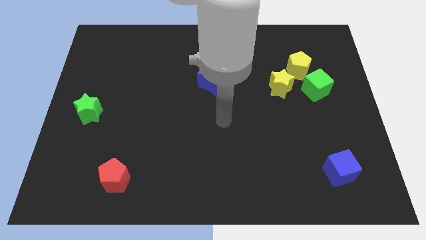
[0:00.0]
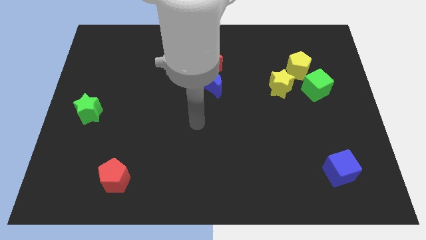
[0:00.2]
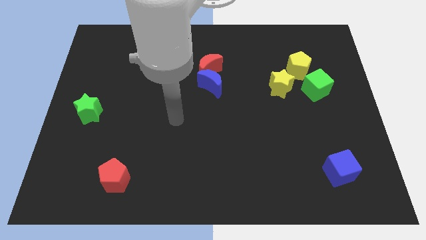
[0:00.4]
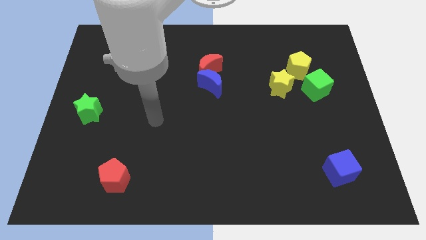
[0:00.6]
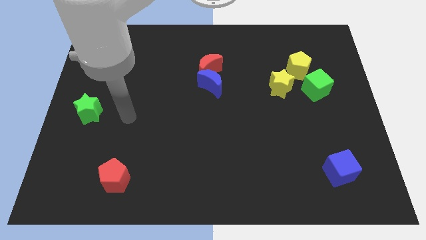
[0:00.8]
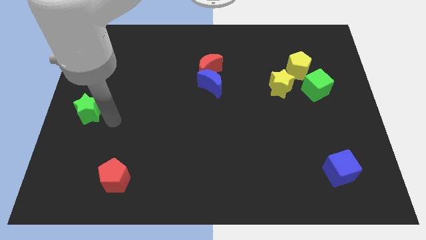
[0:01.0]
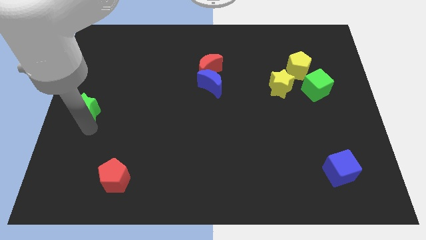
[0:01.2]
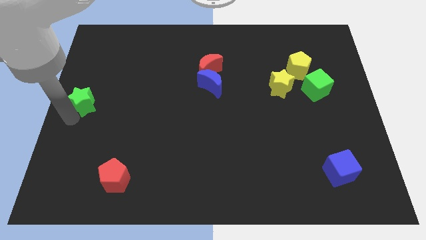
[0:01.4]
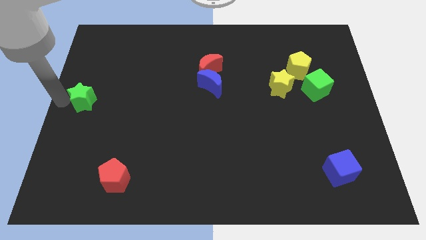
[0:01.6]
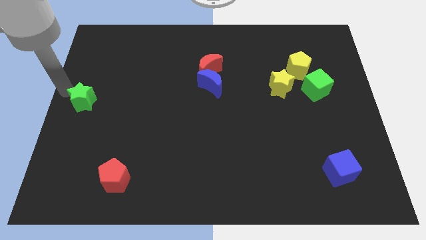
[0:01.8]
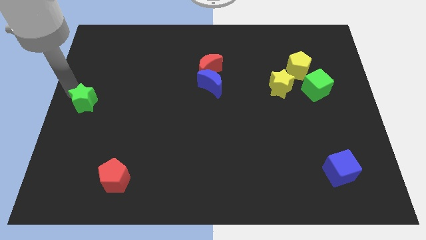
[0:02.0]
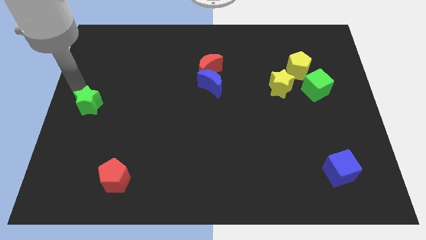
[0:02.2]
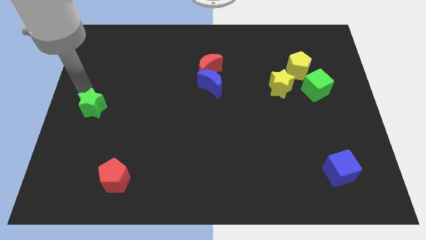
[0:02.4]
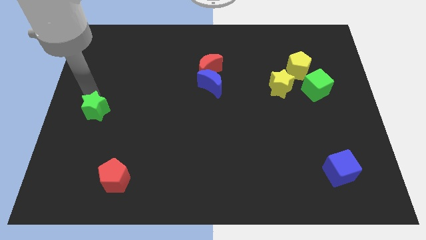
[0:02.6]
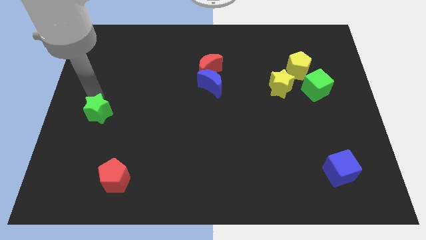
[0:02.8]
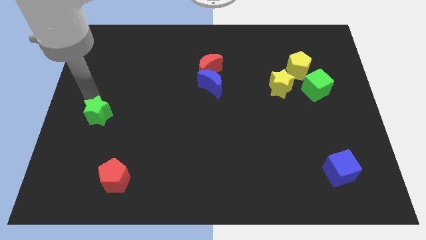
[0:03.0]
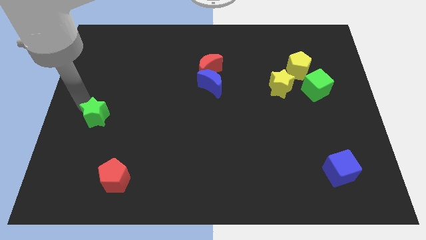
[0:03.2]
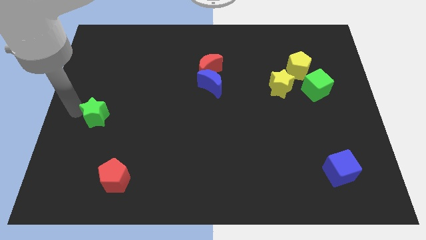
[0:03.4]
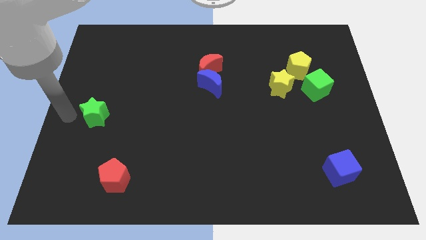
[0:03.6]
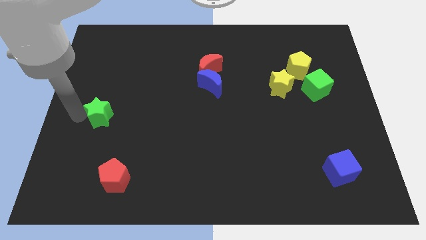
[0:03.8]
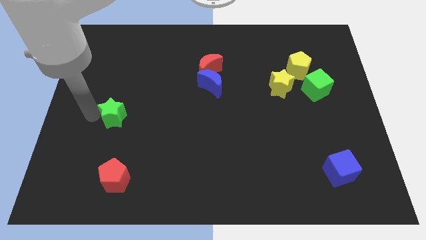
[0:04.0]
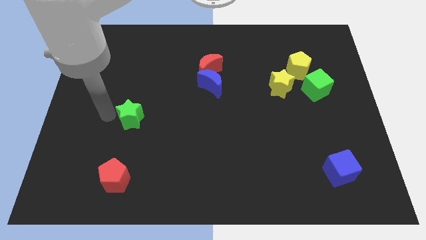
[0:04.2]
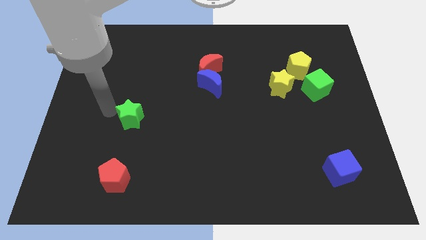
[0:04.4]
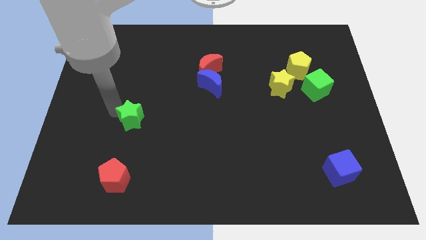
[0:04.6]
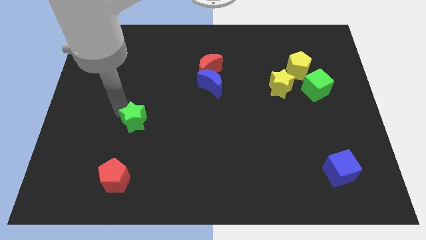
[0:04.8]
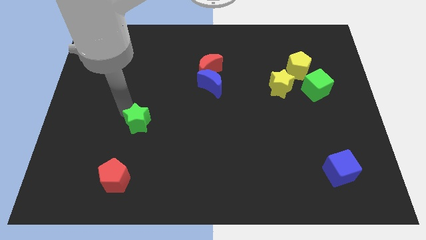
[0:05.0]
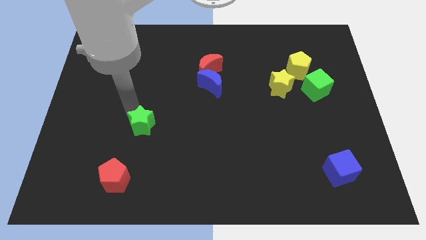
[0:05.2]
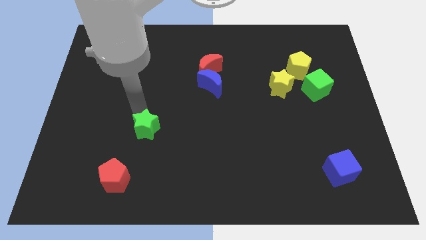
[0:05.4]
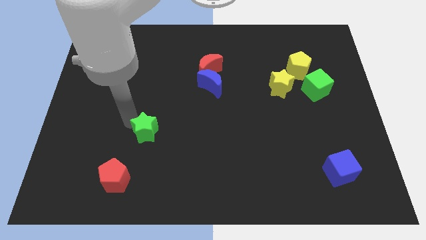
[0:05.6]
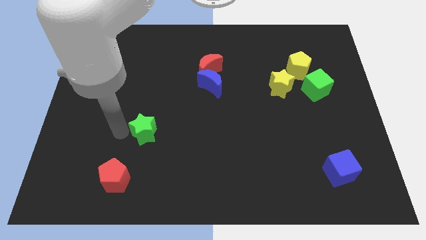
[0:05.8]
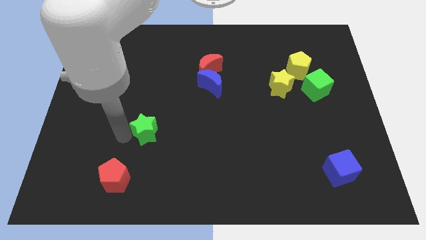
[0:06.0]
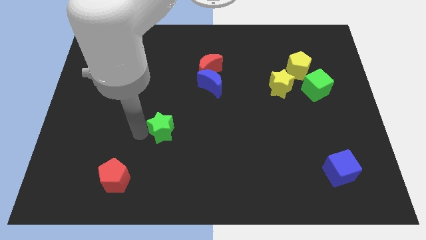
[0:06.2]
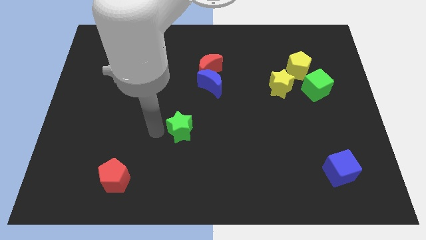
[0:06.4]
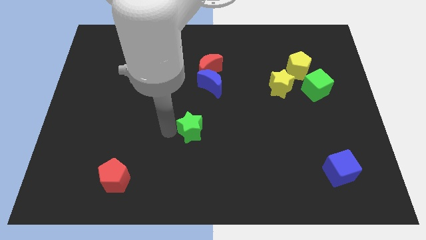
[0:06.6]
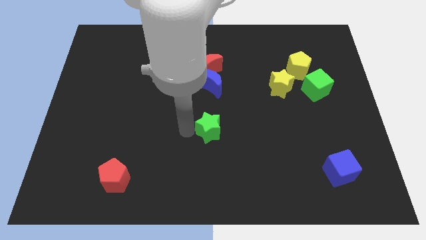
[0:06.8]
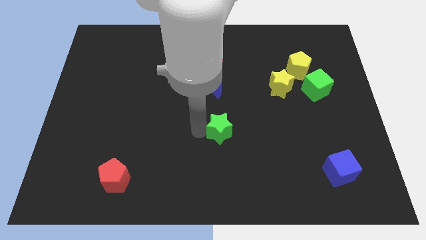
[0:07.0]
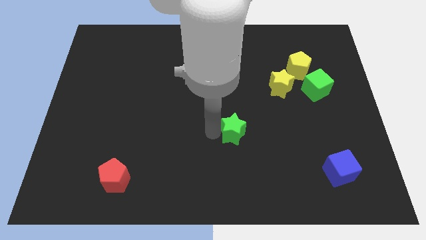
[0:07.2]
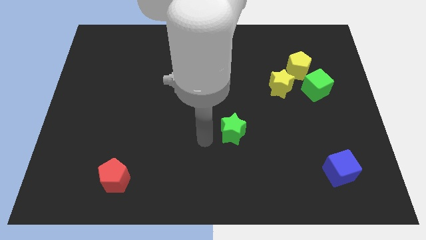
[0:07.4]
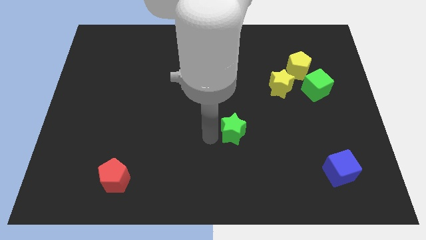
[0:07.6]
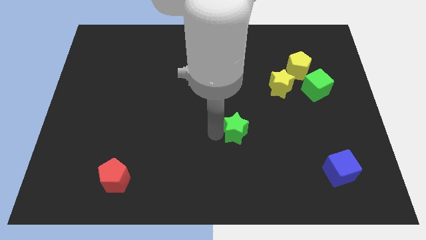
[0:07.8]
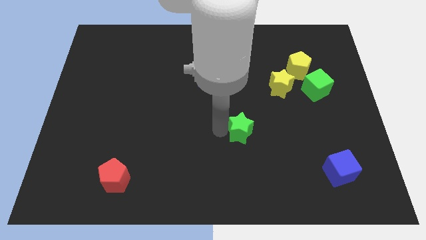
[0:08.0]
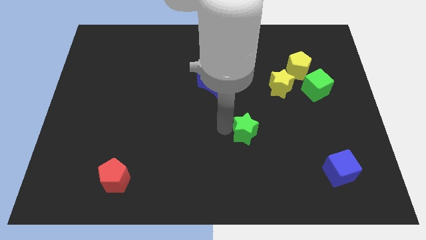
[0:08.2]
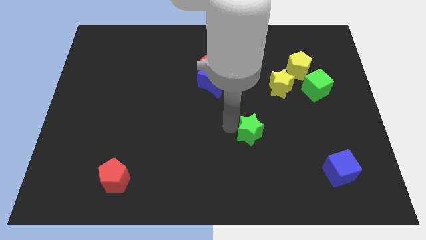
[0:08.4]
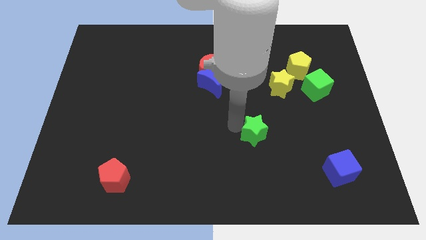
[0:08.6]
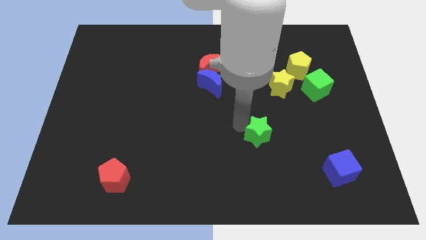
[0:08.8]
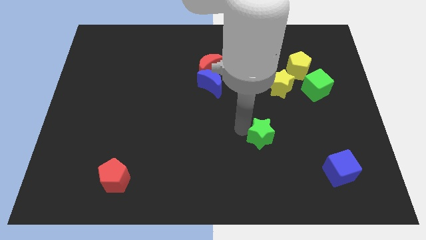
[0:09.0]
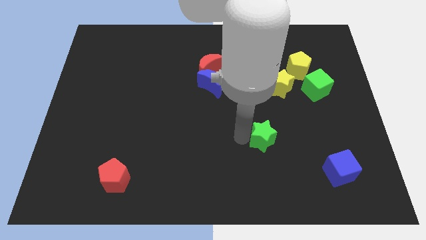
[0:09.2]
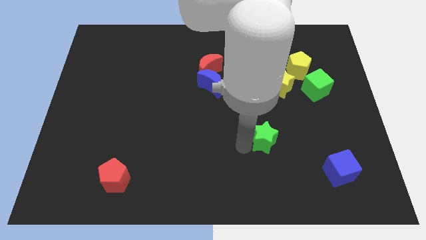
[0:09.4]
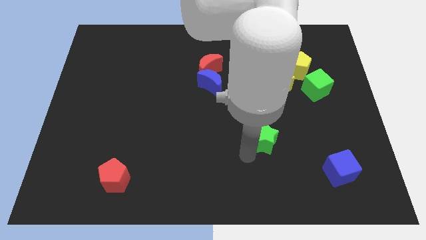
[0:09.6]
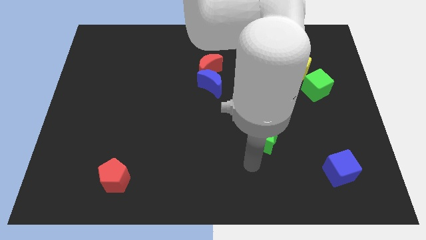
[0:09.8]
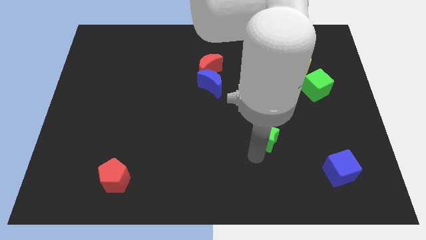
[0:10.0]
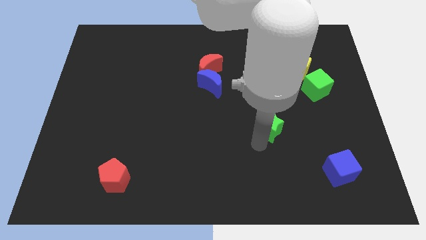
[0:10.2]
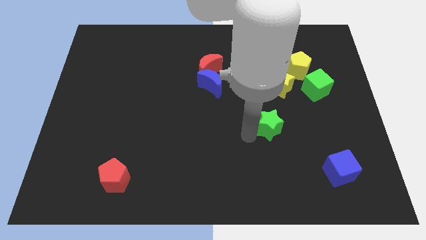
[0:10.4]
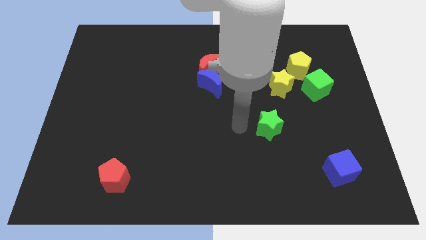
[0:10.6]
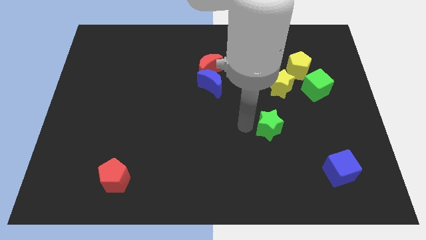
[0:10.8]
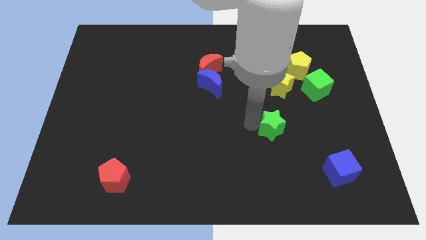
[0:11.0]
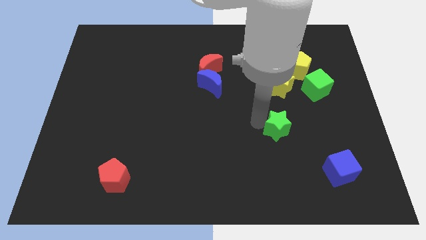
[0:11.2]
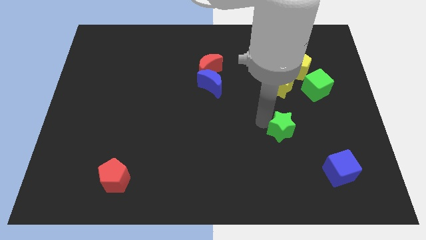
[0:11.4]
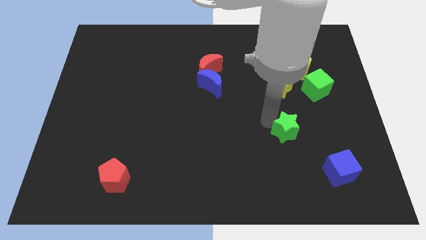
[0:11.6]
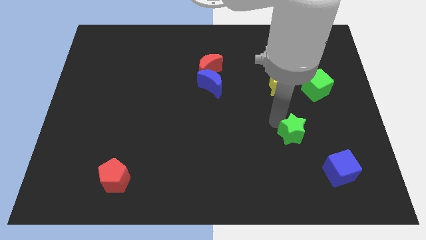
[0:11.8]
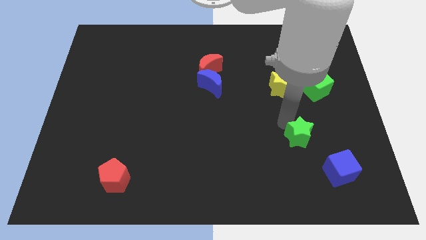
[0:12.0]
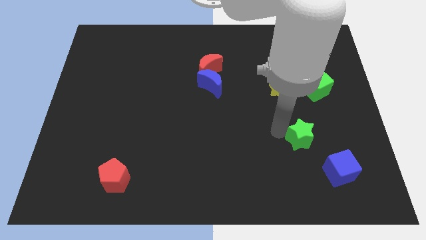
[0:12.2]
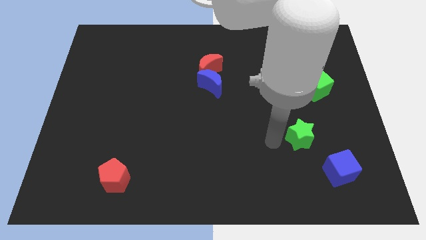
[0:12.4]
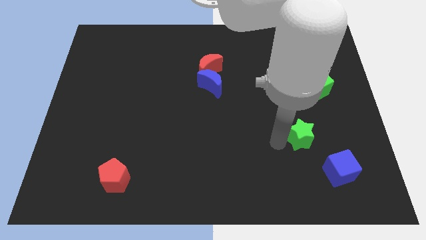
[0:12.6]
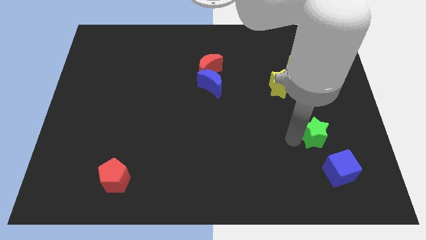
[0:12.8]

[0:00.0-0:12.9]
move the green star to the top side of the blue cube

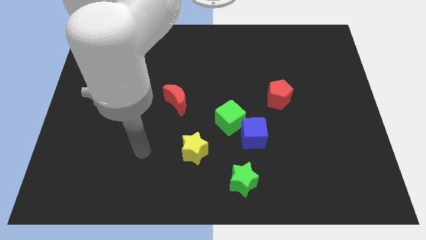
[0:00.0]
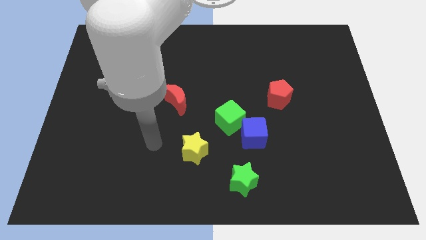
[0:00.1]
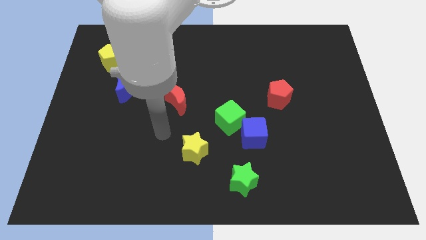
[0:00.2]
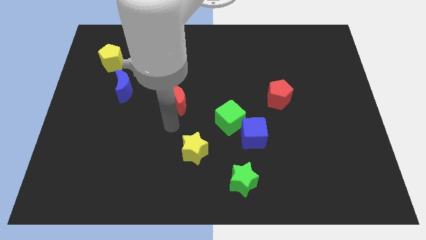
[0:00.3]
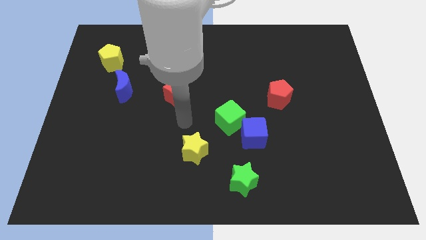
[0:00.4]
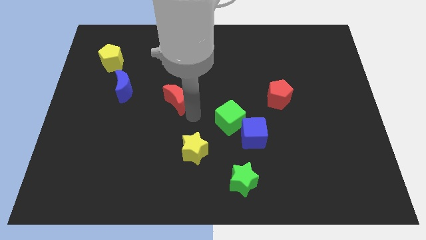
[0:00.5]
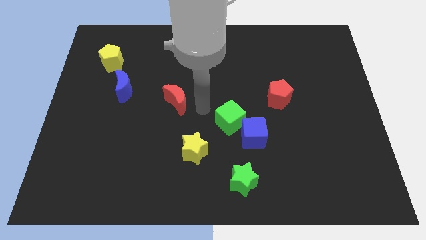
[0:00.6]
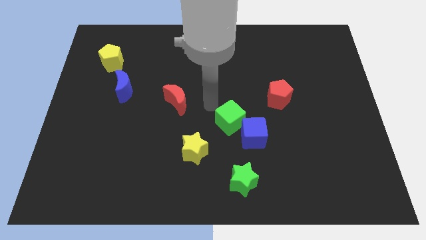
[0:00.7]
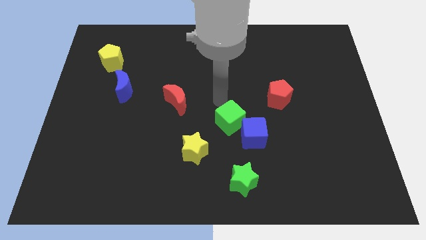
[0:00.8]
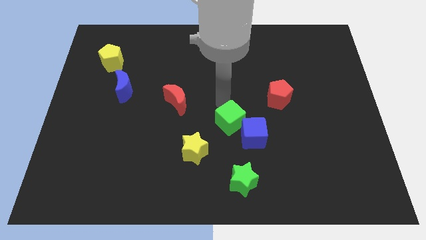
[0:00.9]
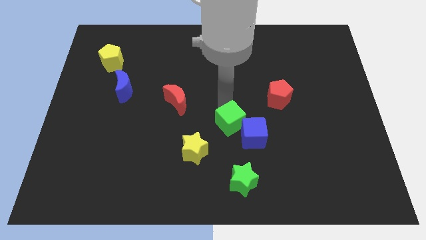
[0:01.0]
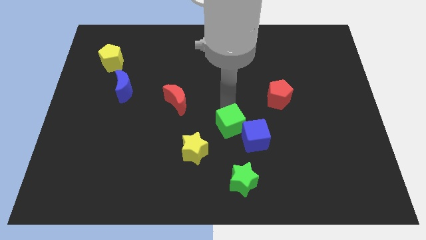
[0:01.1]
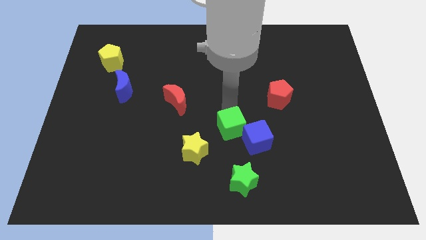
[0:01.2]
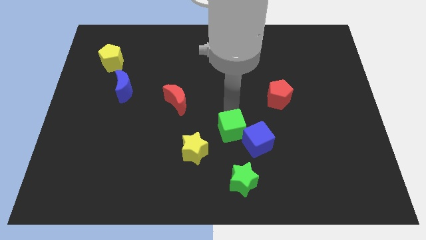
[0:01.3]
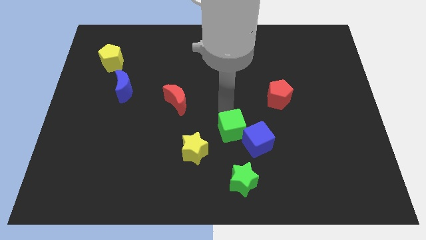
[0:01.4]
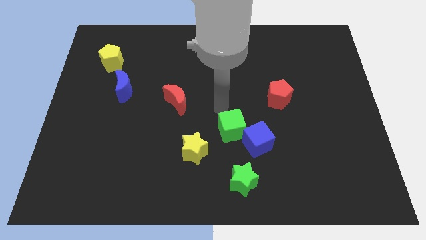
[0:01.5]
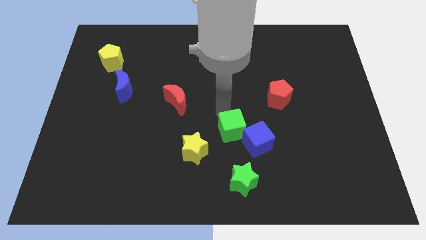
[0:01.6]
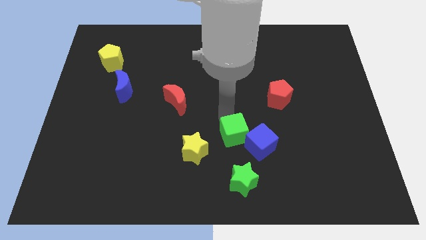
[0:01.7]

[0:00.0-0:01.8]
slide the green cube just right of the yellow star
